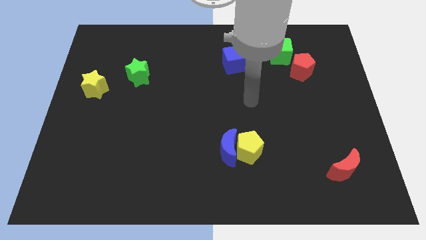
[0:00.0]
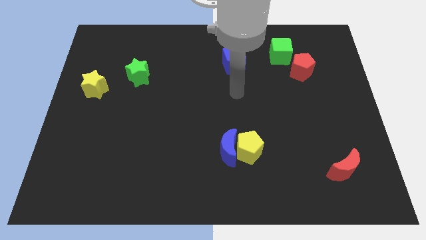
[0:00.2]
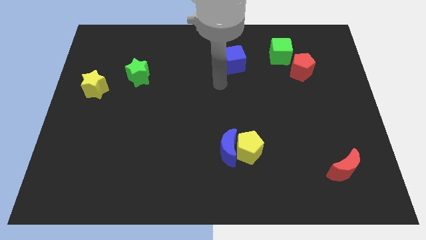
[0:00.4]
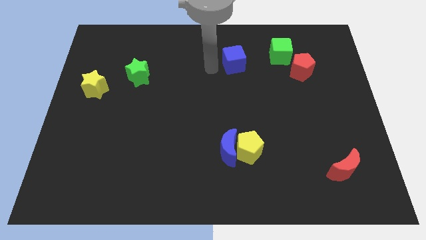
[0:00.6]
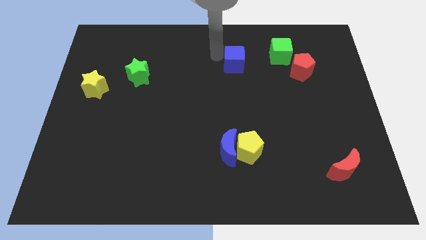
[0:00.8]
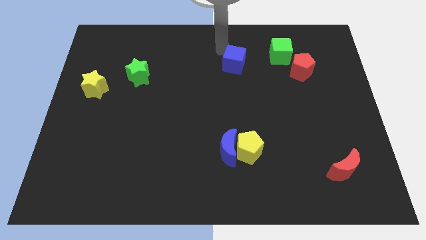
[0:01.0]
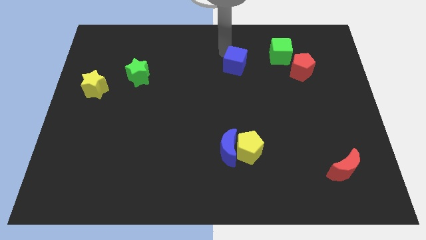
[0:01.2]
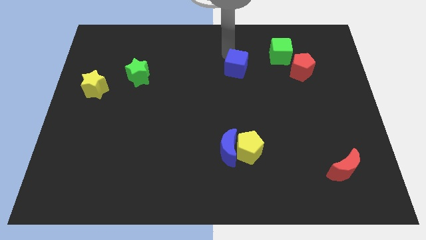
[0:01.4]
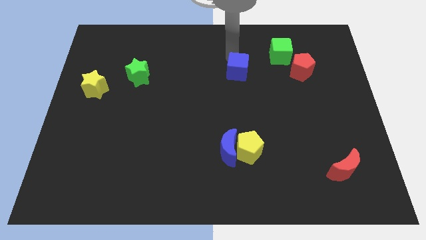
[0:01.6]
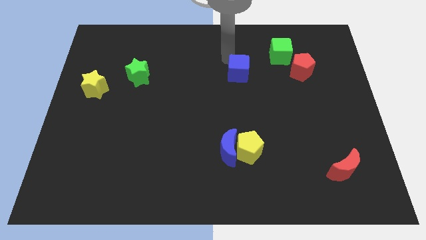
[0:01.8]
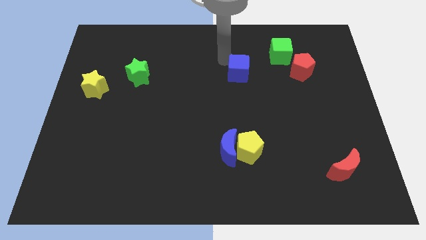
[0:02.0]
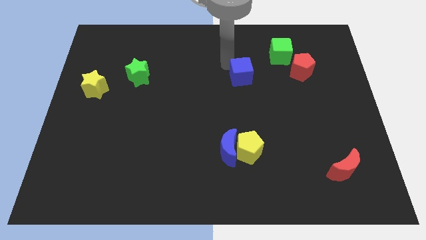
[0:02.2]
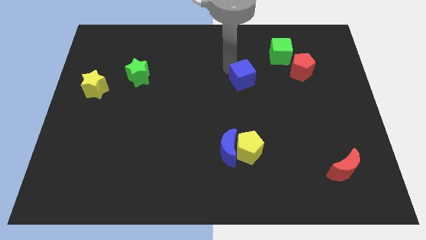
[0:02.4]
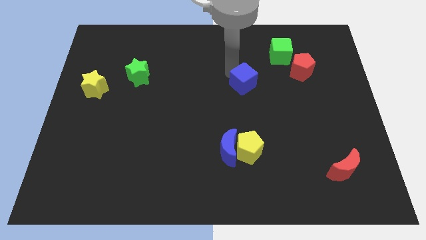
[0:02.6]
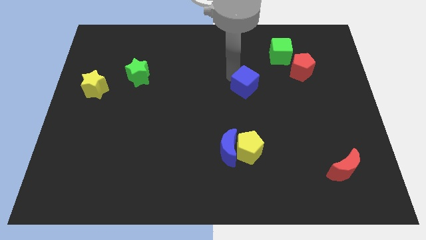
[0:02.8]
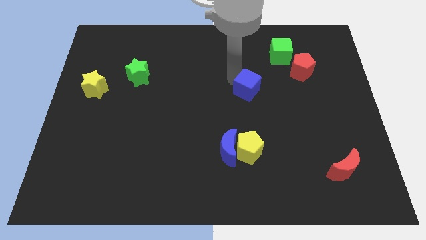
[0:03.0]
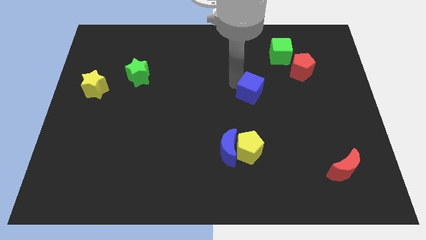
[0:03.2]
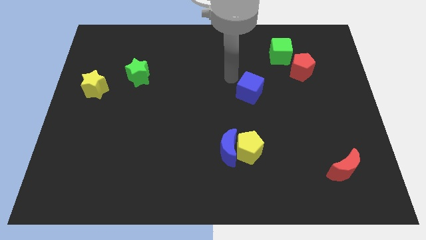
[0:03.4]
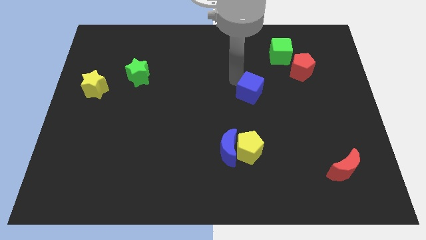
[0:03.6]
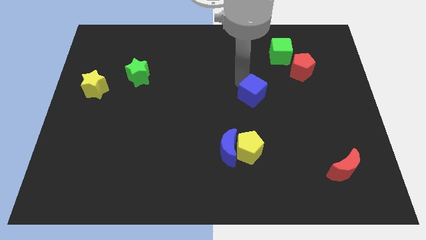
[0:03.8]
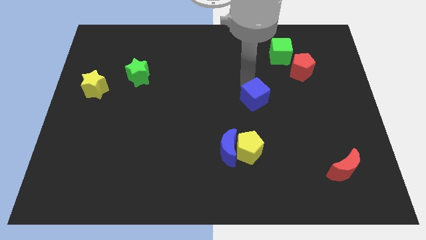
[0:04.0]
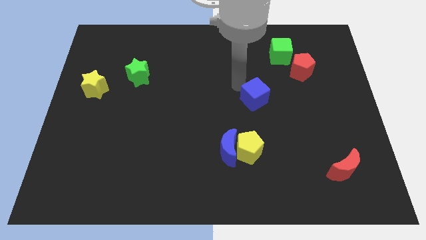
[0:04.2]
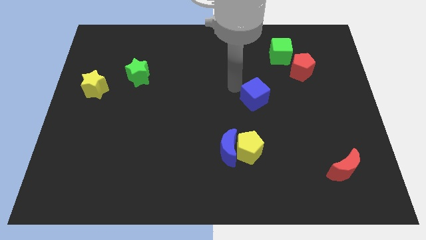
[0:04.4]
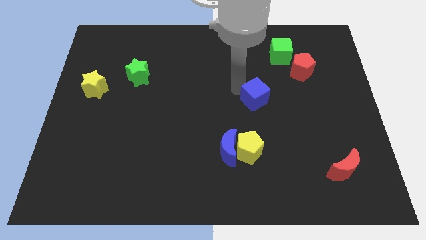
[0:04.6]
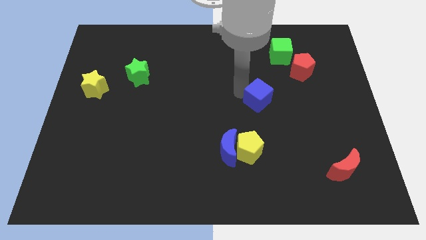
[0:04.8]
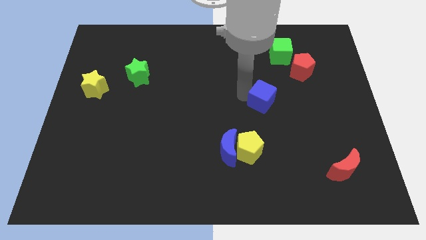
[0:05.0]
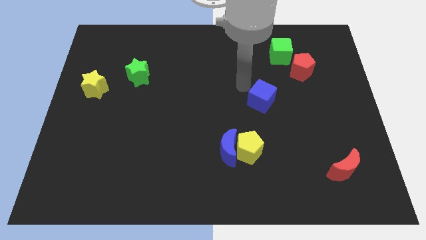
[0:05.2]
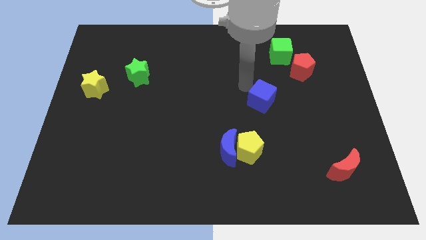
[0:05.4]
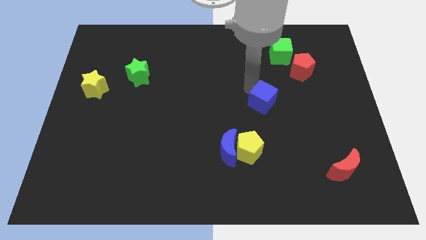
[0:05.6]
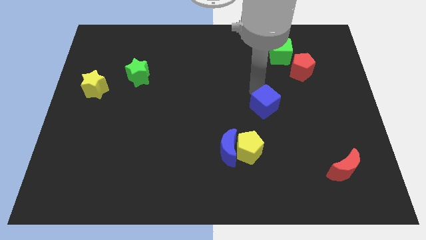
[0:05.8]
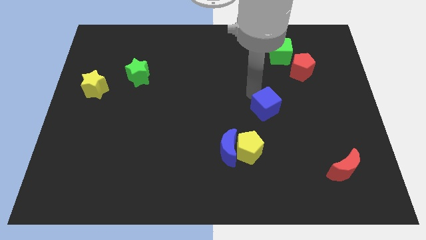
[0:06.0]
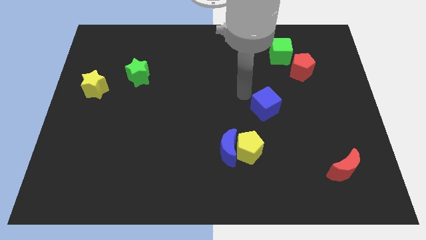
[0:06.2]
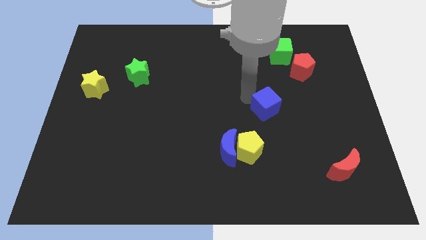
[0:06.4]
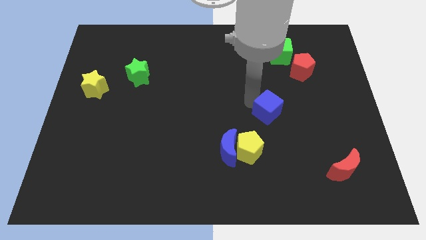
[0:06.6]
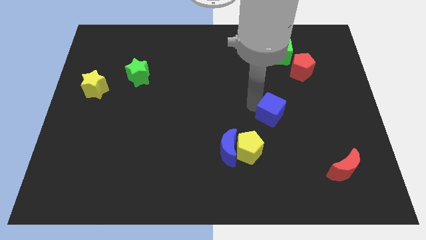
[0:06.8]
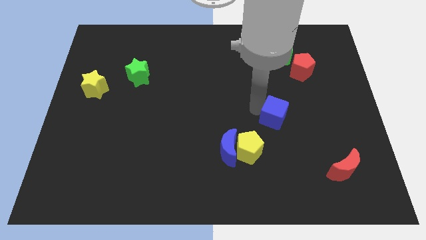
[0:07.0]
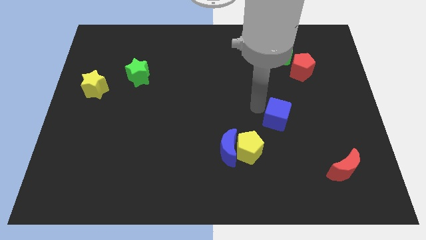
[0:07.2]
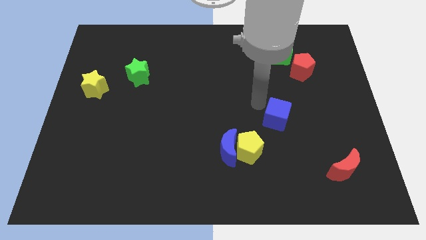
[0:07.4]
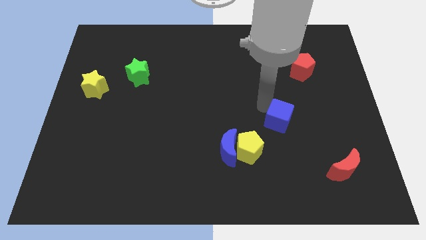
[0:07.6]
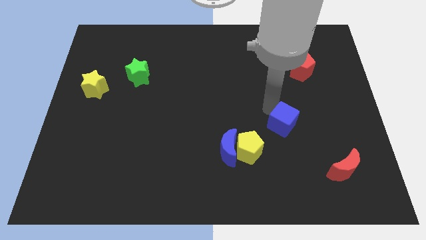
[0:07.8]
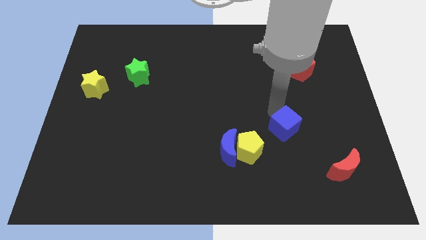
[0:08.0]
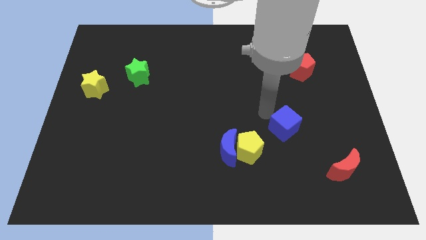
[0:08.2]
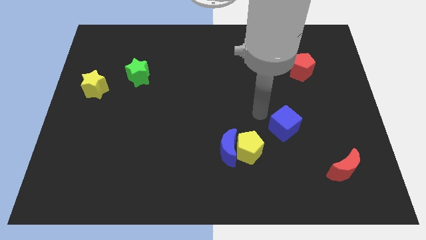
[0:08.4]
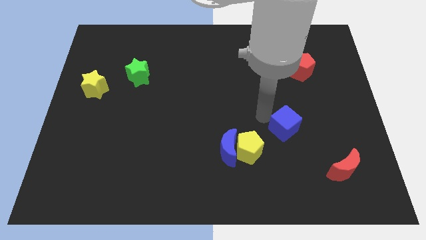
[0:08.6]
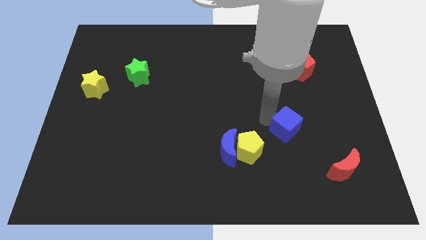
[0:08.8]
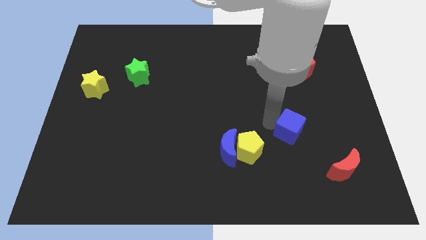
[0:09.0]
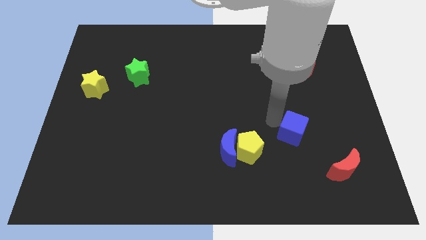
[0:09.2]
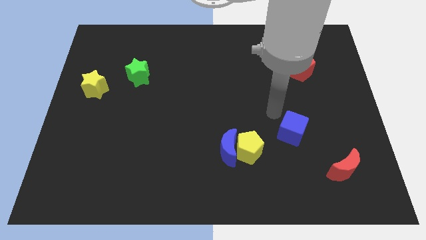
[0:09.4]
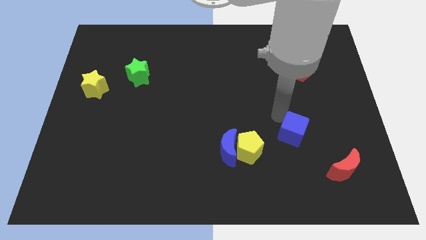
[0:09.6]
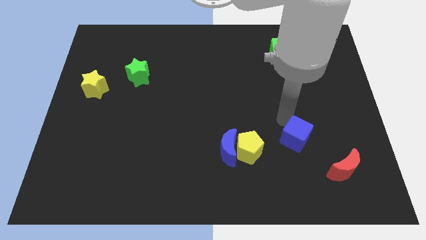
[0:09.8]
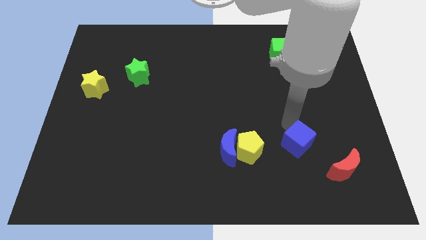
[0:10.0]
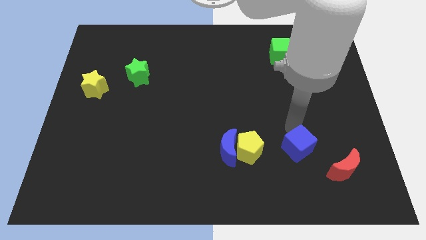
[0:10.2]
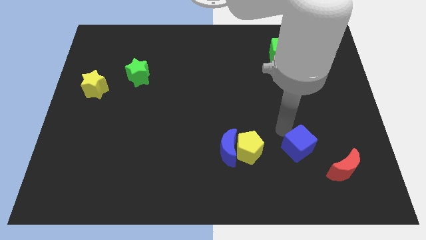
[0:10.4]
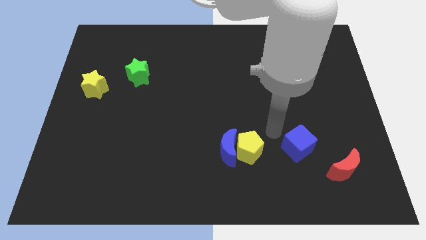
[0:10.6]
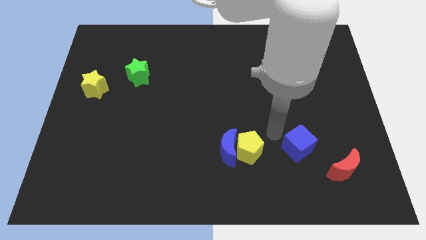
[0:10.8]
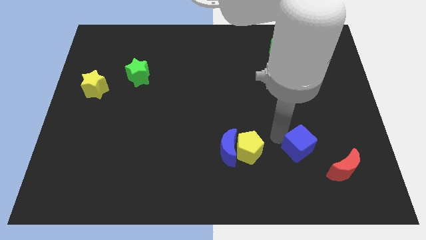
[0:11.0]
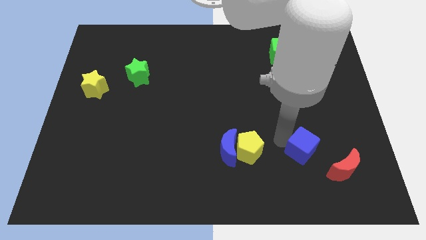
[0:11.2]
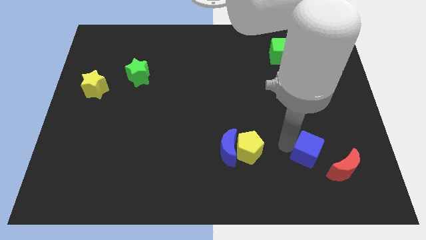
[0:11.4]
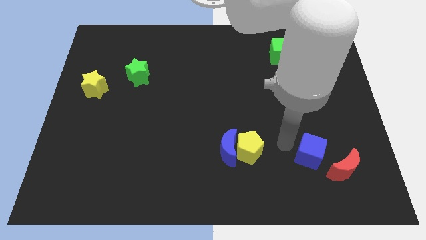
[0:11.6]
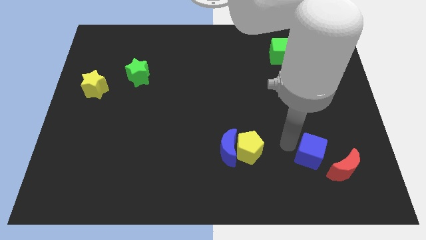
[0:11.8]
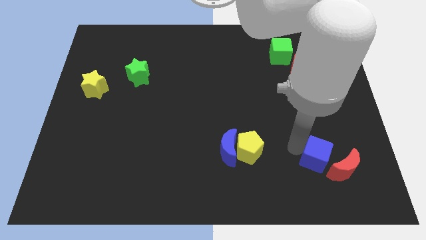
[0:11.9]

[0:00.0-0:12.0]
move the blue cube towards the red moon

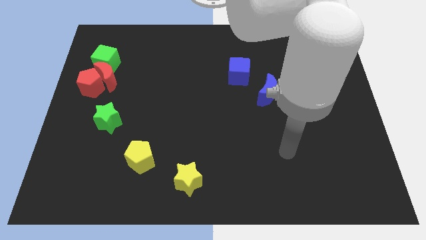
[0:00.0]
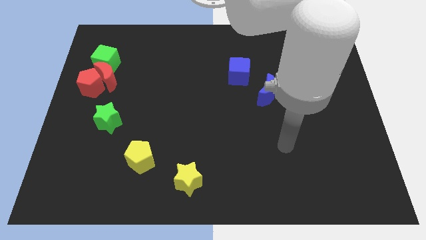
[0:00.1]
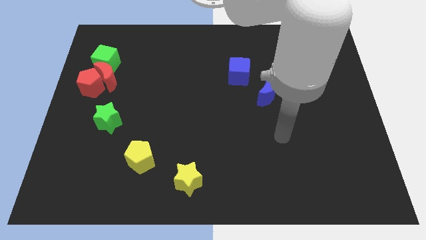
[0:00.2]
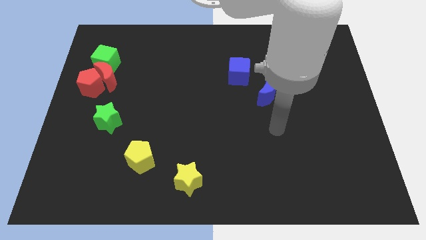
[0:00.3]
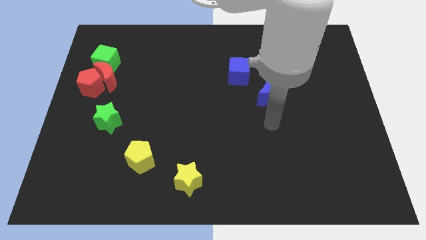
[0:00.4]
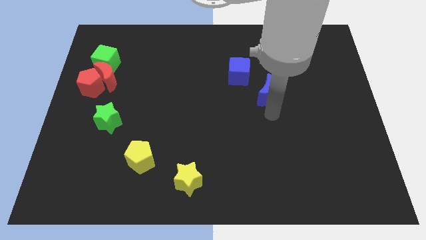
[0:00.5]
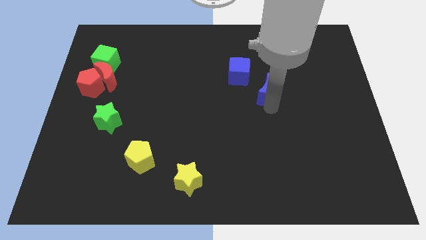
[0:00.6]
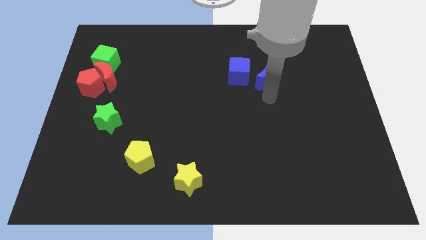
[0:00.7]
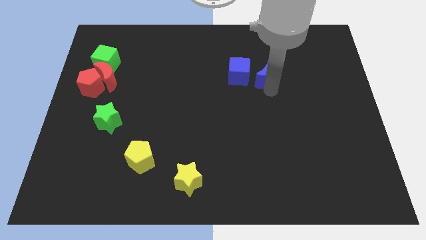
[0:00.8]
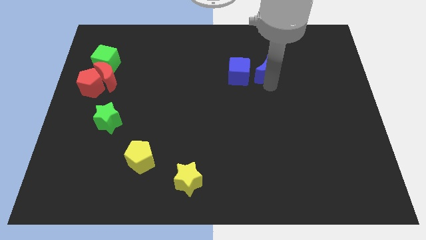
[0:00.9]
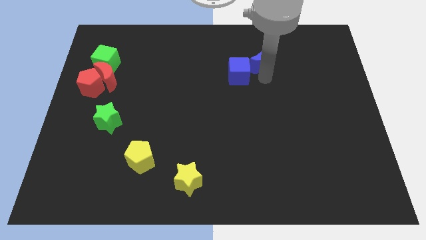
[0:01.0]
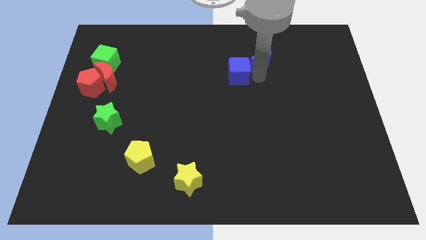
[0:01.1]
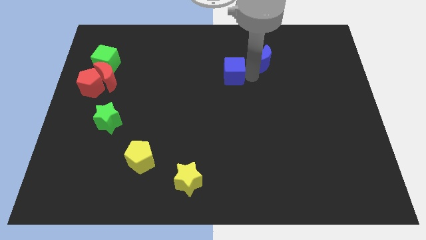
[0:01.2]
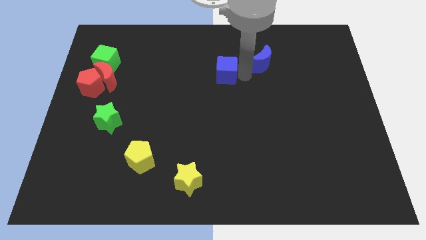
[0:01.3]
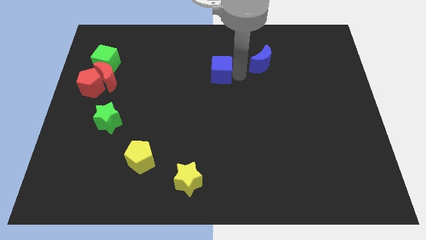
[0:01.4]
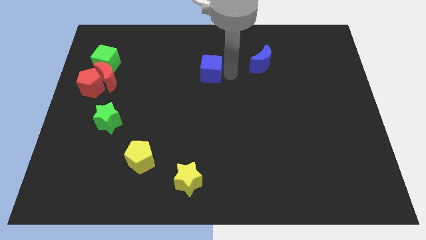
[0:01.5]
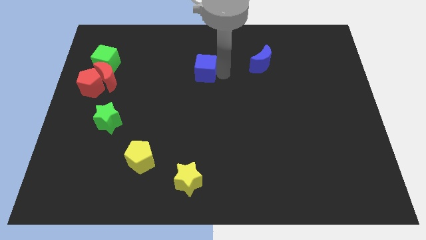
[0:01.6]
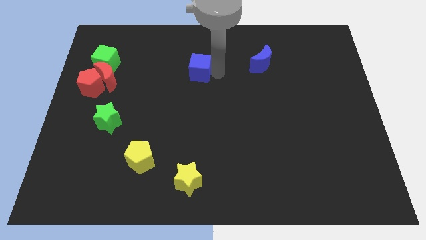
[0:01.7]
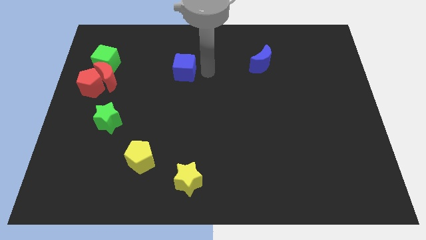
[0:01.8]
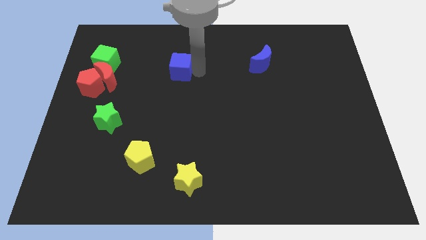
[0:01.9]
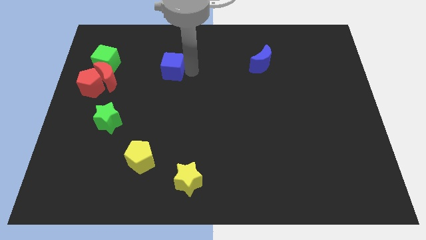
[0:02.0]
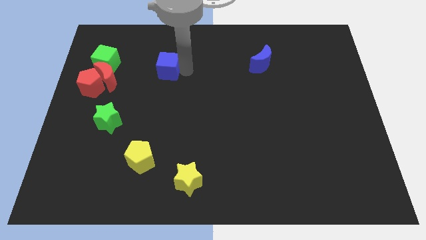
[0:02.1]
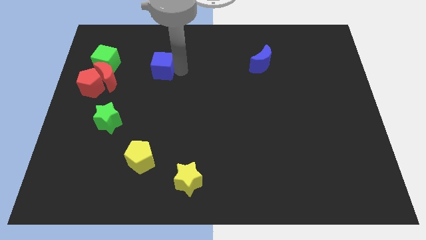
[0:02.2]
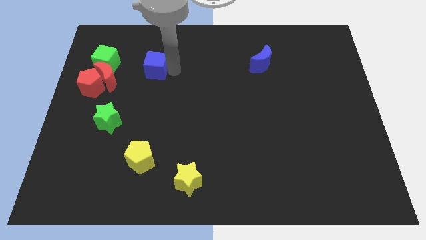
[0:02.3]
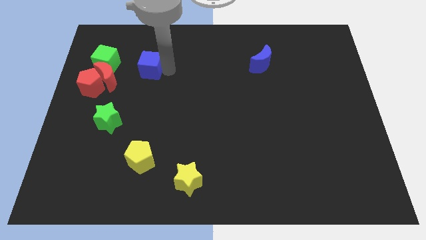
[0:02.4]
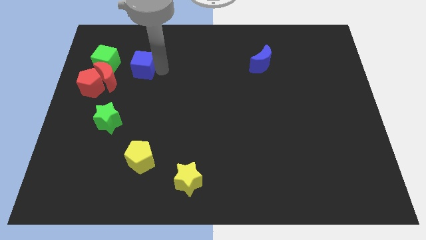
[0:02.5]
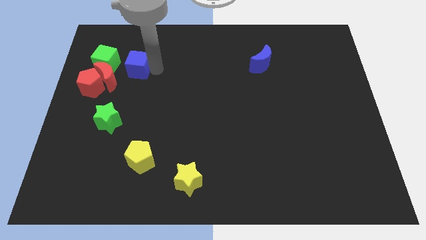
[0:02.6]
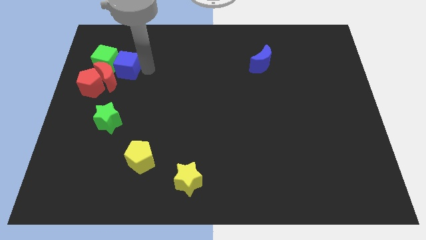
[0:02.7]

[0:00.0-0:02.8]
move the blue cube towards the green cube
